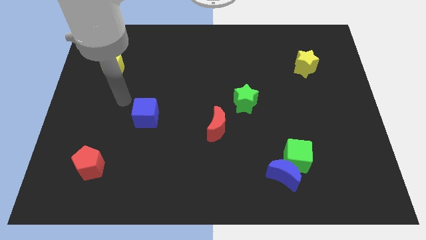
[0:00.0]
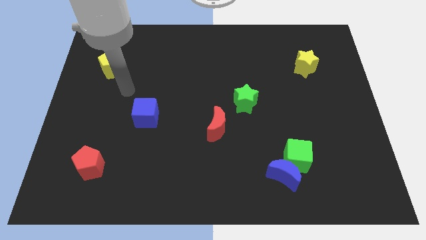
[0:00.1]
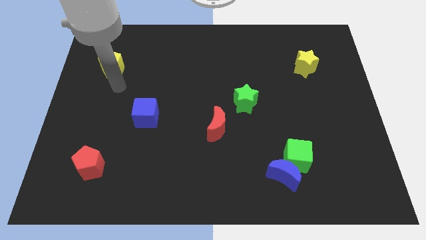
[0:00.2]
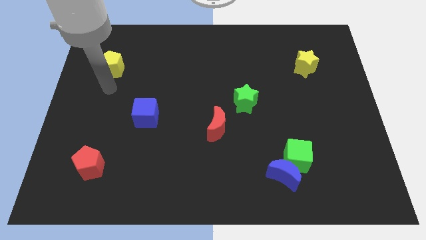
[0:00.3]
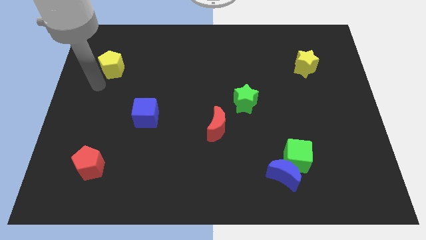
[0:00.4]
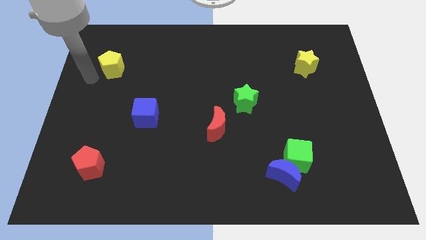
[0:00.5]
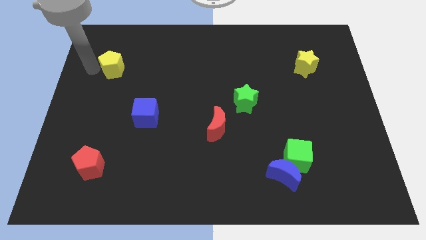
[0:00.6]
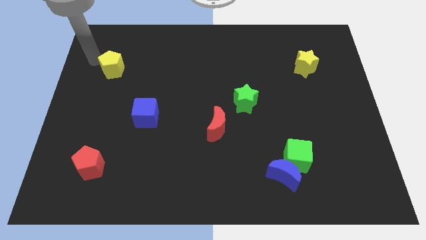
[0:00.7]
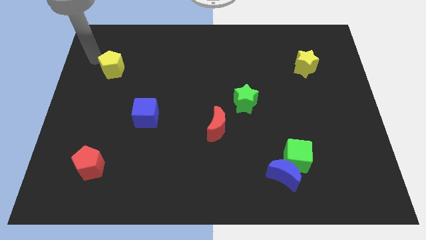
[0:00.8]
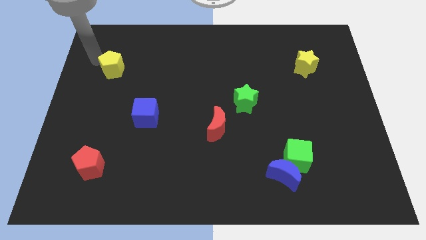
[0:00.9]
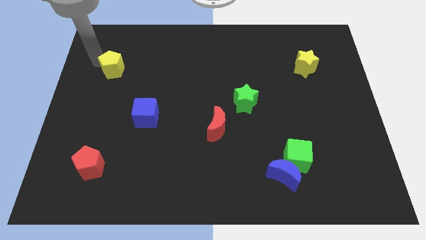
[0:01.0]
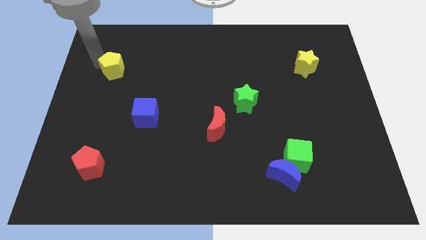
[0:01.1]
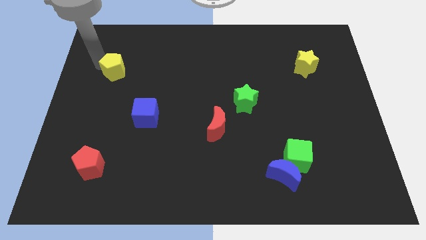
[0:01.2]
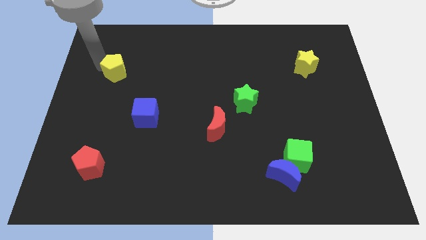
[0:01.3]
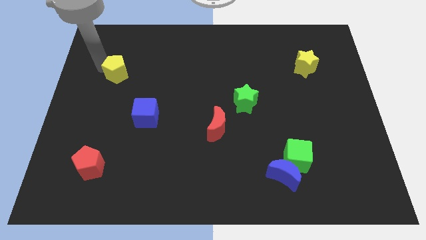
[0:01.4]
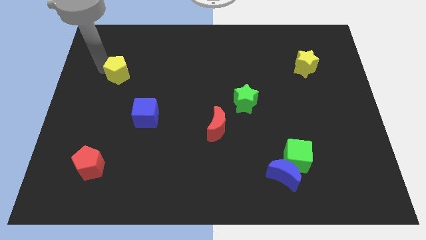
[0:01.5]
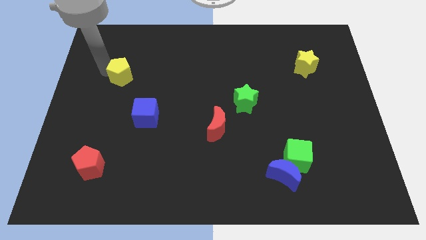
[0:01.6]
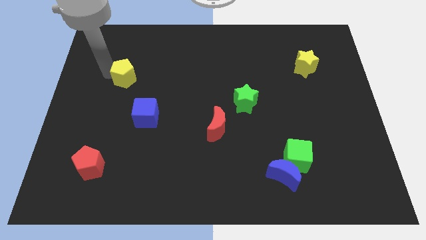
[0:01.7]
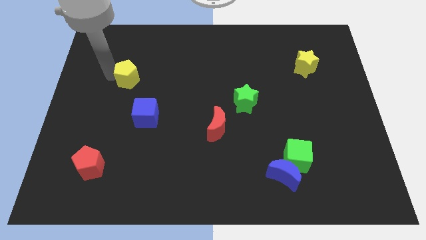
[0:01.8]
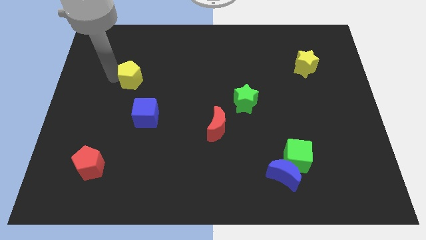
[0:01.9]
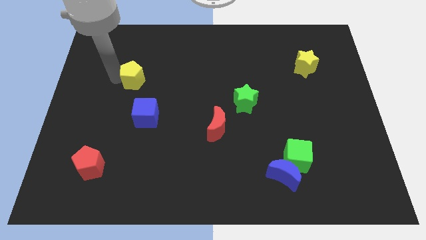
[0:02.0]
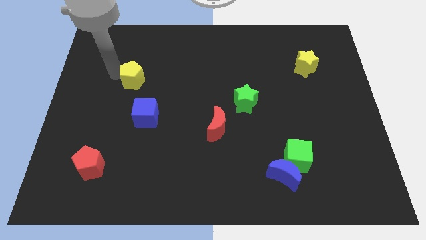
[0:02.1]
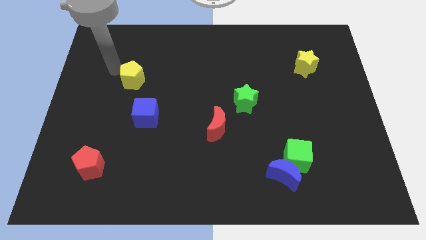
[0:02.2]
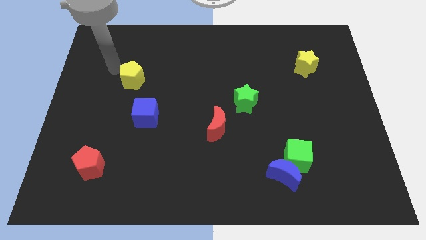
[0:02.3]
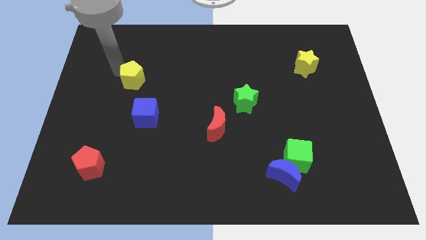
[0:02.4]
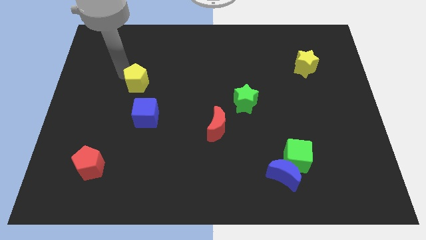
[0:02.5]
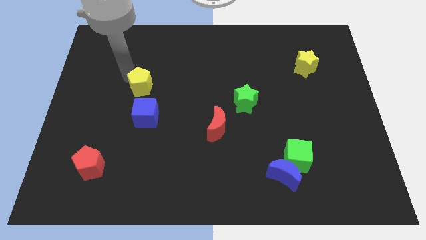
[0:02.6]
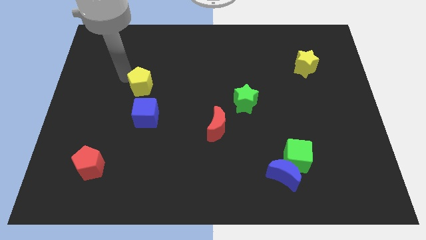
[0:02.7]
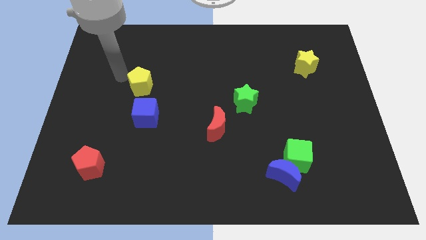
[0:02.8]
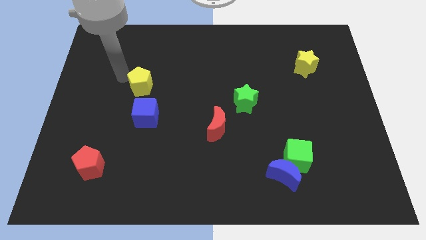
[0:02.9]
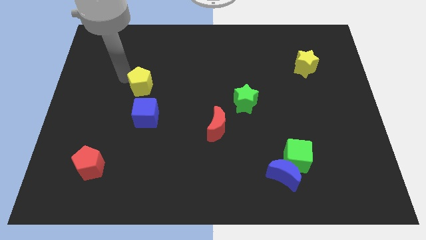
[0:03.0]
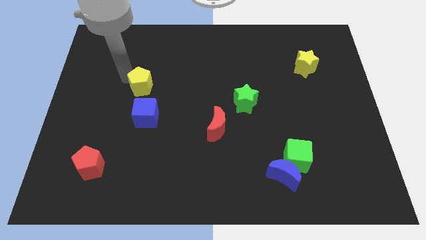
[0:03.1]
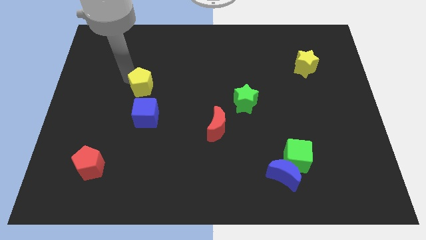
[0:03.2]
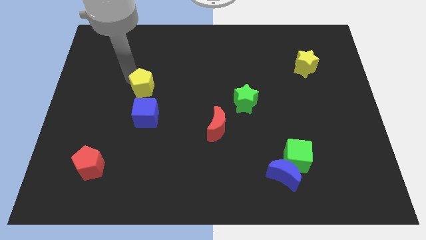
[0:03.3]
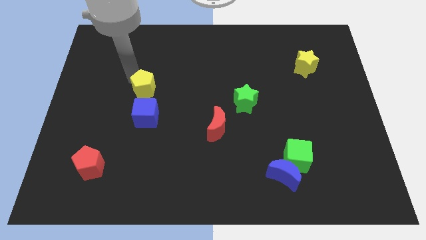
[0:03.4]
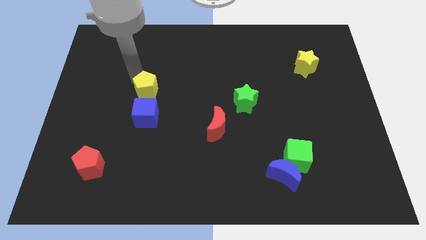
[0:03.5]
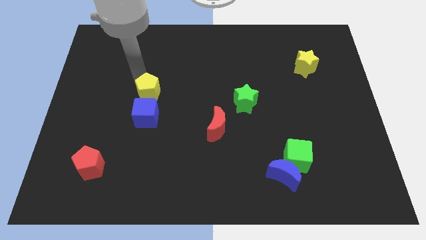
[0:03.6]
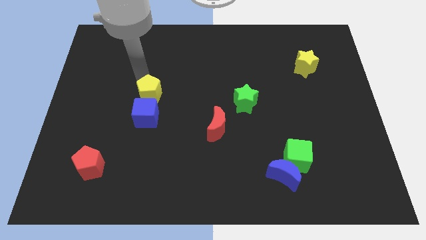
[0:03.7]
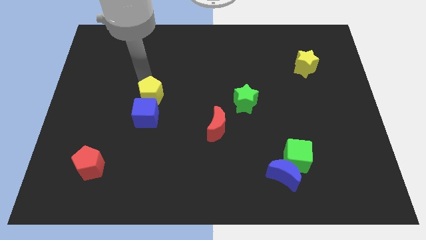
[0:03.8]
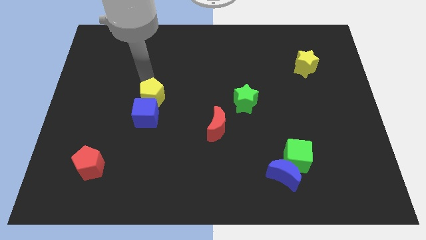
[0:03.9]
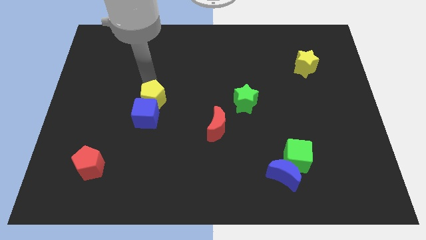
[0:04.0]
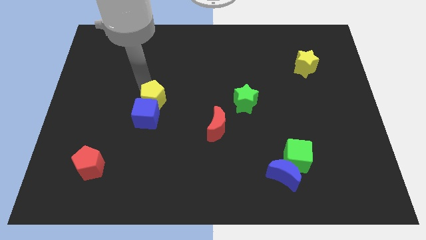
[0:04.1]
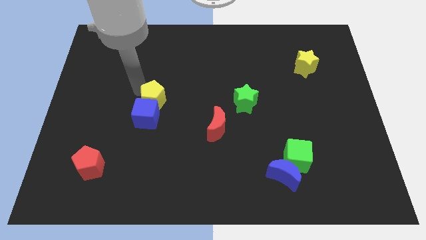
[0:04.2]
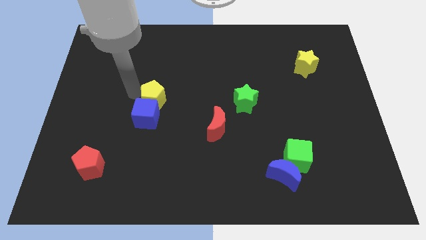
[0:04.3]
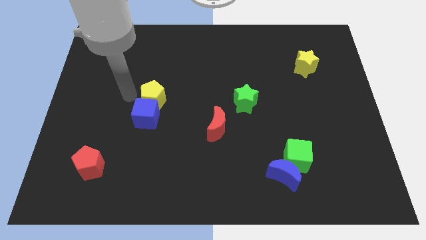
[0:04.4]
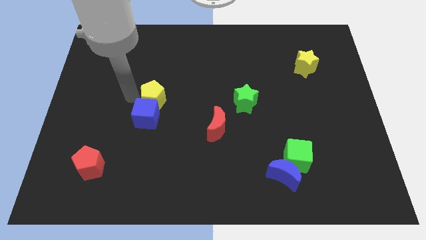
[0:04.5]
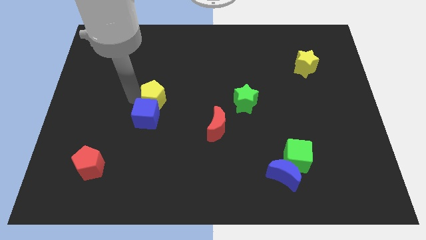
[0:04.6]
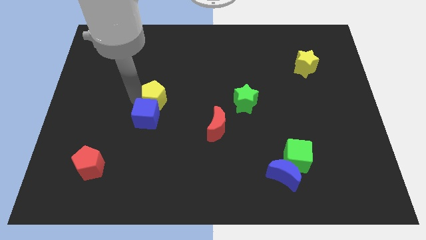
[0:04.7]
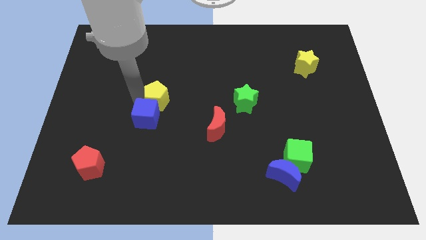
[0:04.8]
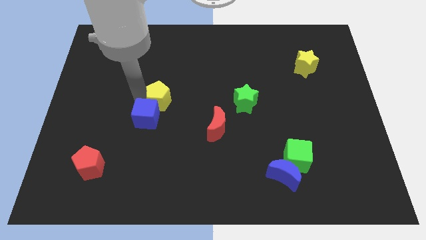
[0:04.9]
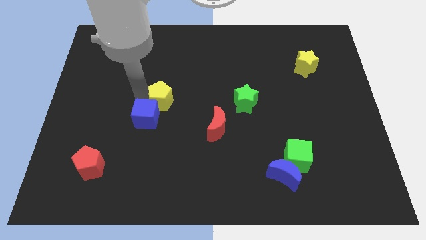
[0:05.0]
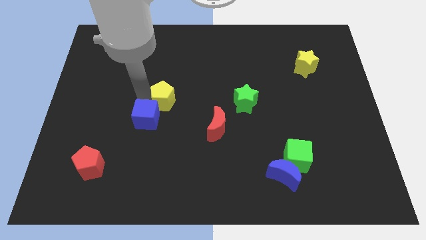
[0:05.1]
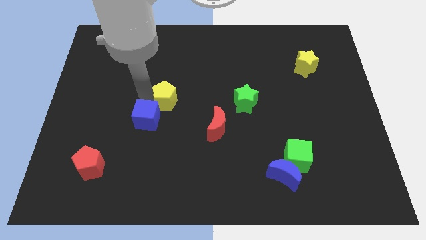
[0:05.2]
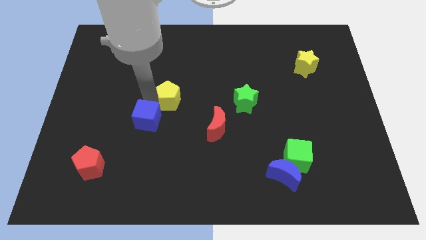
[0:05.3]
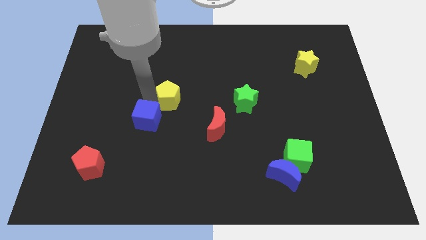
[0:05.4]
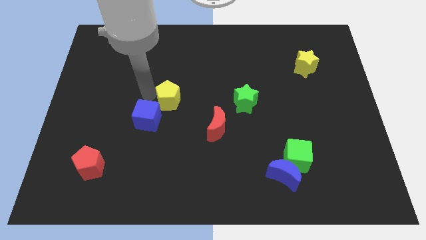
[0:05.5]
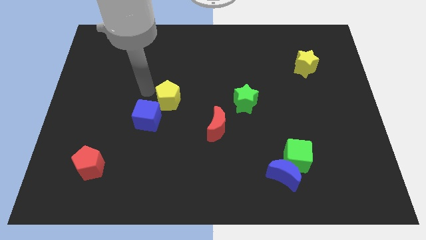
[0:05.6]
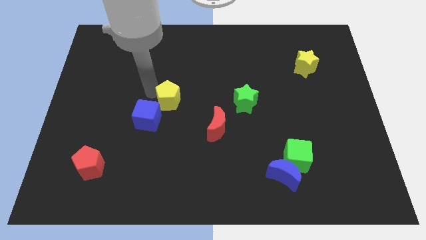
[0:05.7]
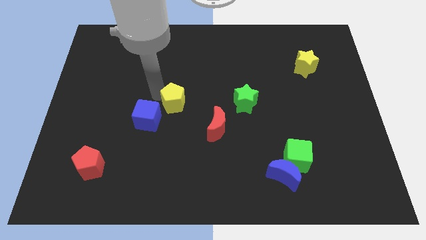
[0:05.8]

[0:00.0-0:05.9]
slide the yellow pentagon to the top left side of the red moon

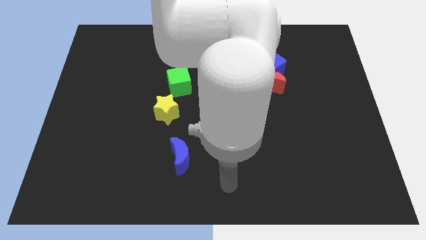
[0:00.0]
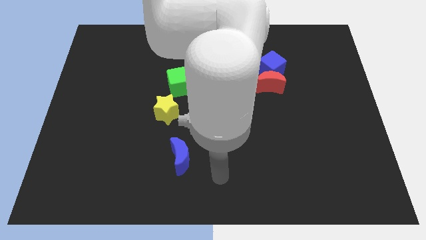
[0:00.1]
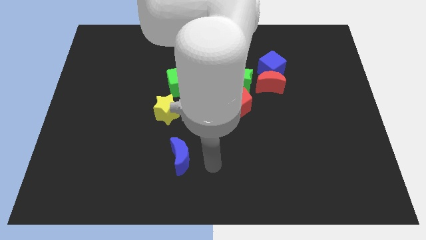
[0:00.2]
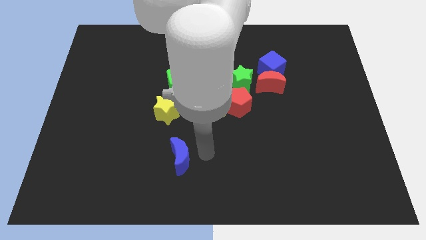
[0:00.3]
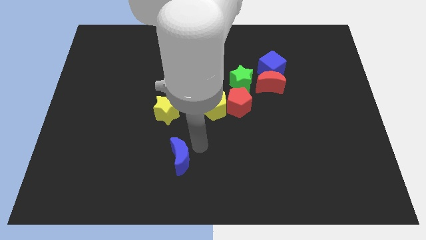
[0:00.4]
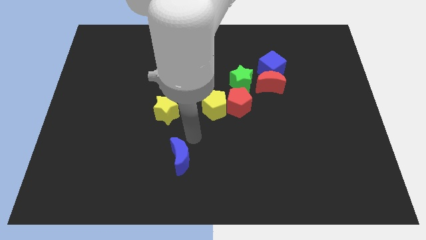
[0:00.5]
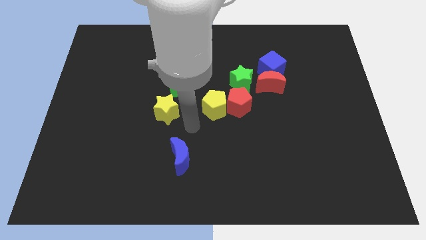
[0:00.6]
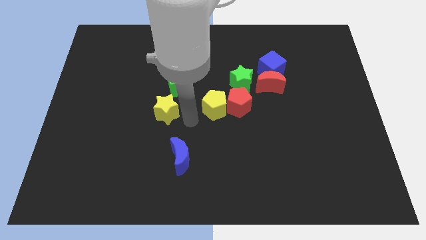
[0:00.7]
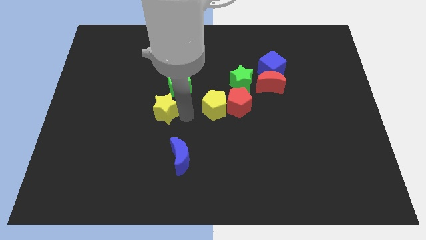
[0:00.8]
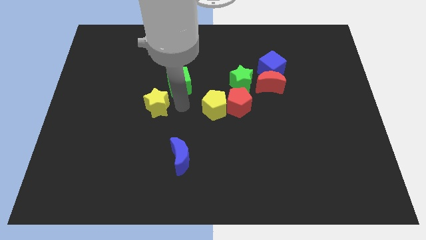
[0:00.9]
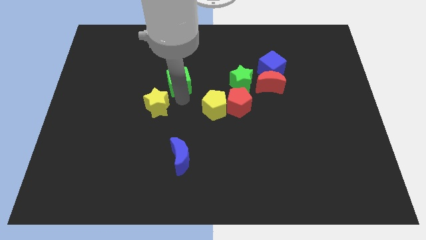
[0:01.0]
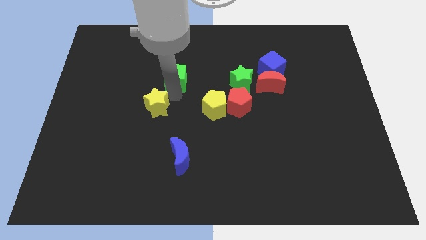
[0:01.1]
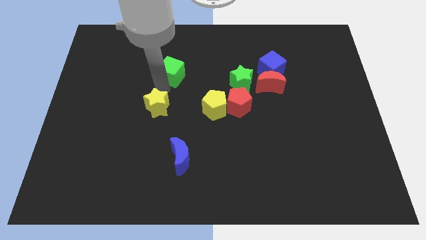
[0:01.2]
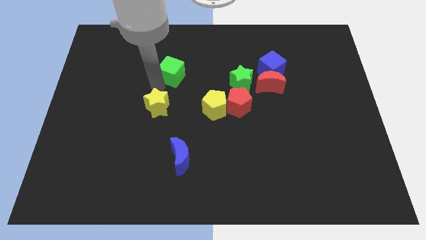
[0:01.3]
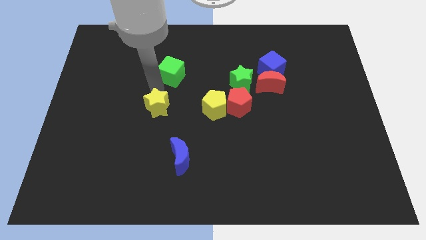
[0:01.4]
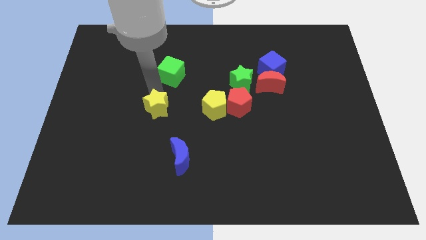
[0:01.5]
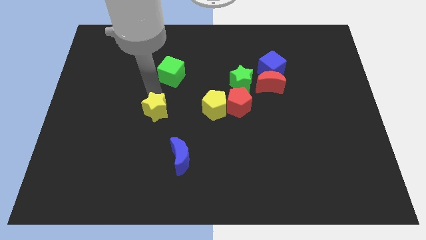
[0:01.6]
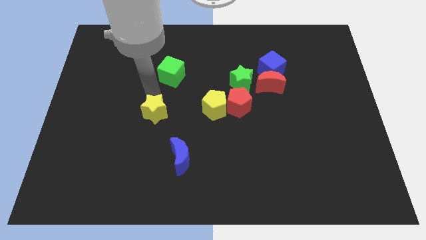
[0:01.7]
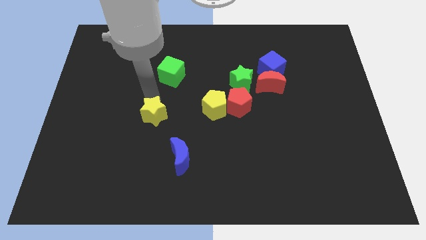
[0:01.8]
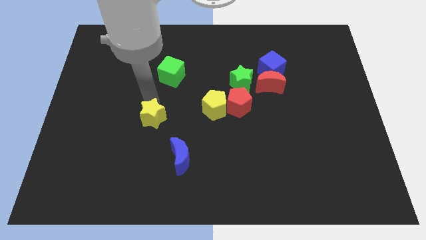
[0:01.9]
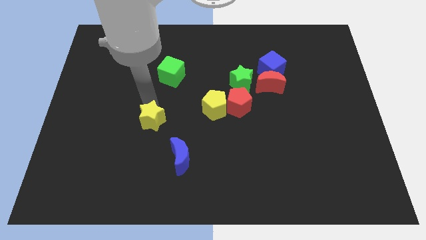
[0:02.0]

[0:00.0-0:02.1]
put the yellow star to the top left of the blue moon
